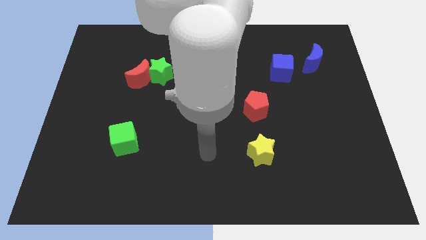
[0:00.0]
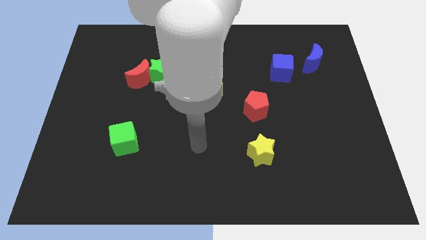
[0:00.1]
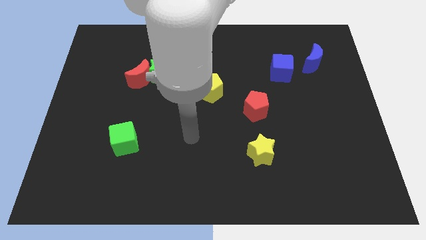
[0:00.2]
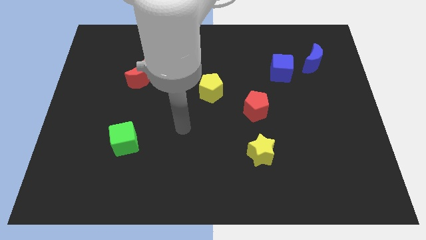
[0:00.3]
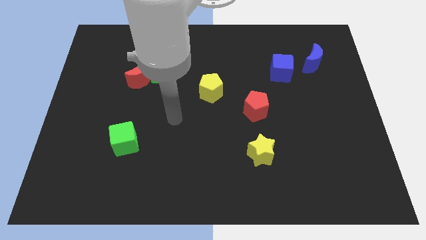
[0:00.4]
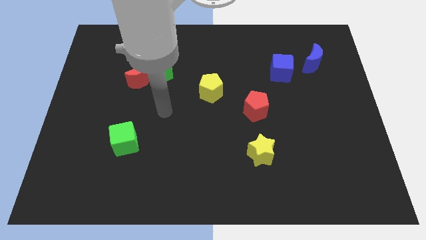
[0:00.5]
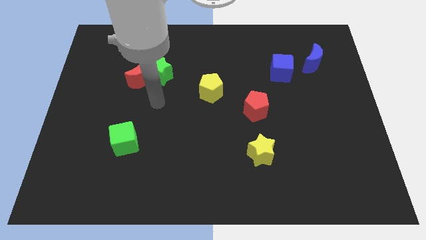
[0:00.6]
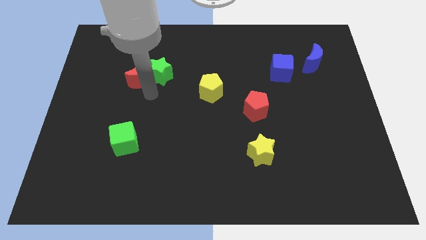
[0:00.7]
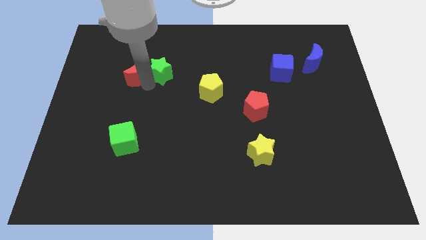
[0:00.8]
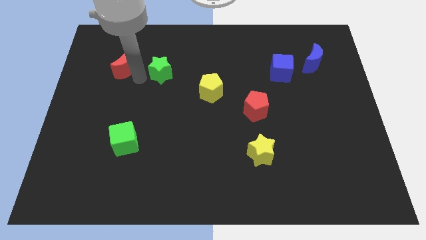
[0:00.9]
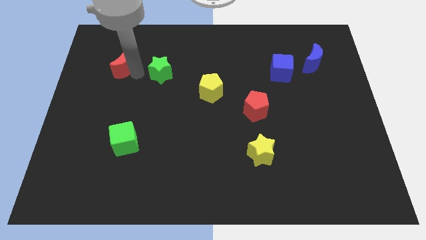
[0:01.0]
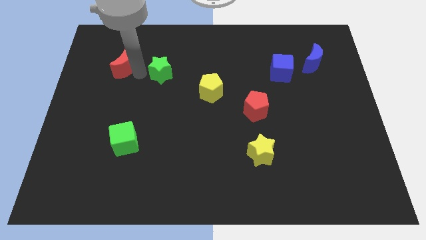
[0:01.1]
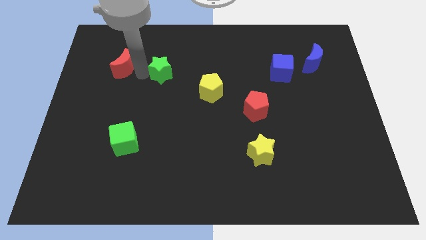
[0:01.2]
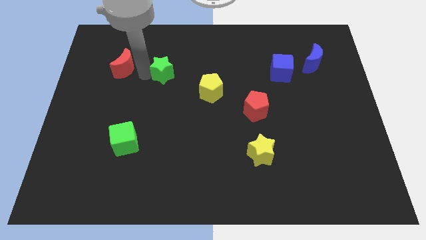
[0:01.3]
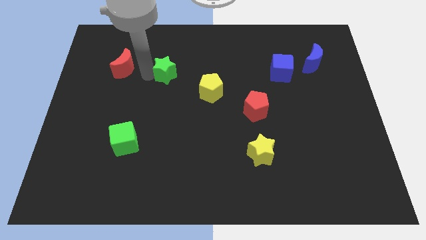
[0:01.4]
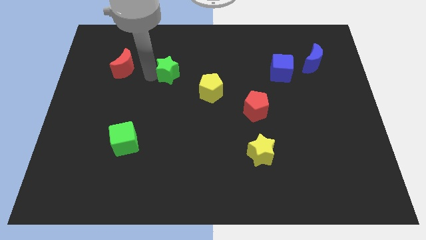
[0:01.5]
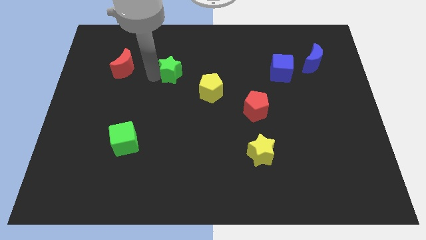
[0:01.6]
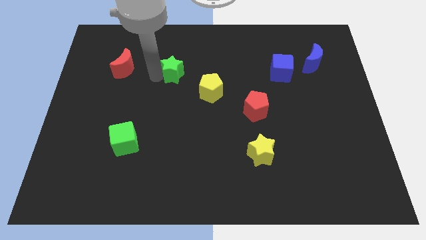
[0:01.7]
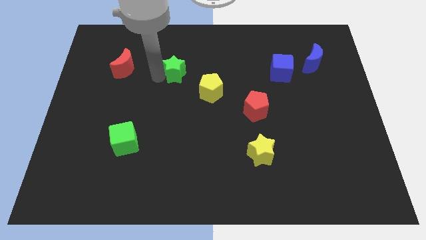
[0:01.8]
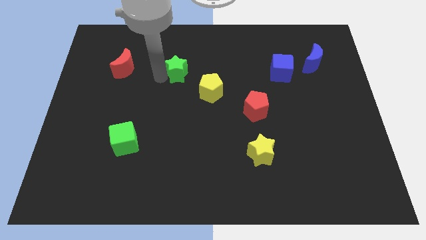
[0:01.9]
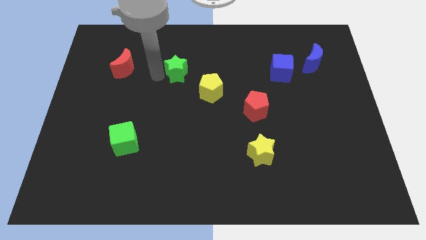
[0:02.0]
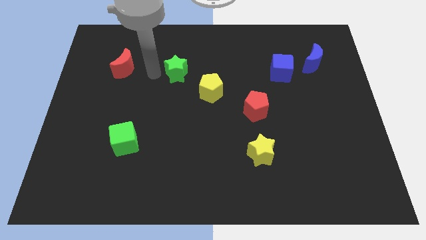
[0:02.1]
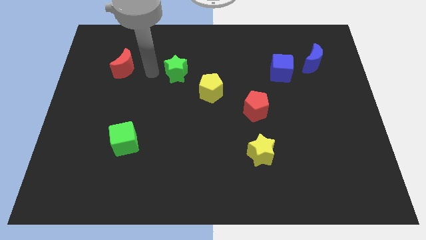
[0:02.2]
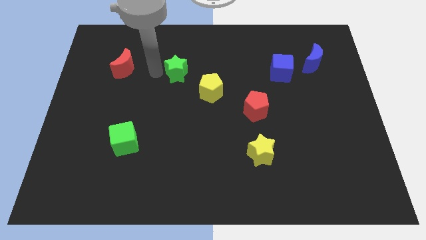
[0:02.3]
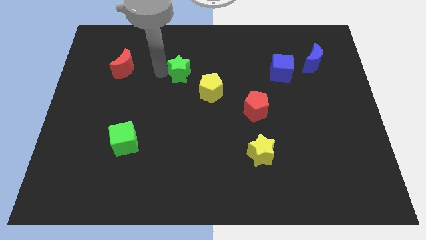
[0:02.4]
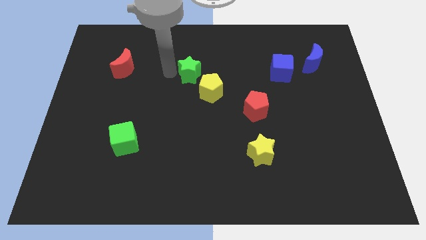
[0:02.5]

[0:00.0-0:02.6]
slightly push the green star right

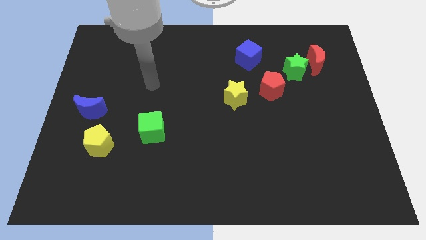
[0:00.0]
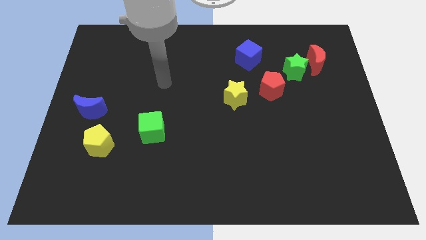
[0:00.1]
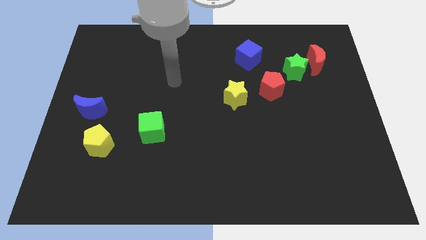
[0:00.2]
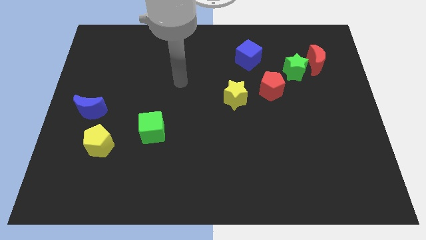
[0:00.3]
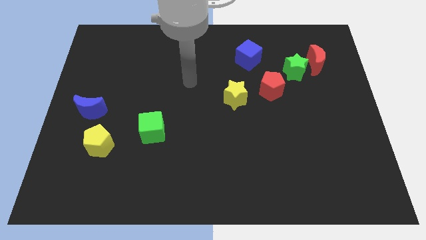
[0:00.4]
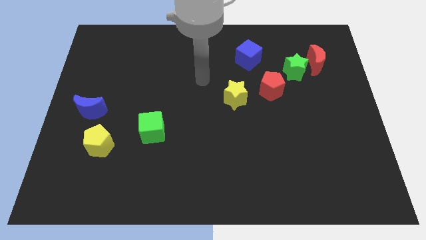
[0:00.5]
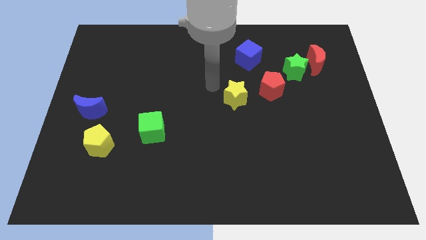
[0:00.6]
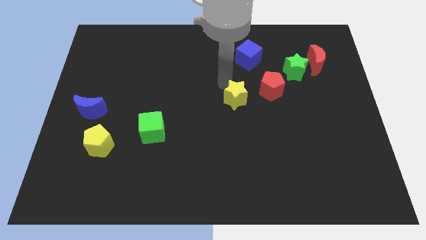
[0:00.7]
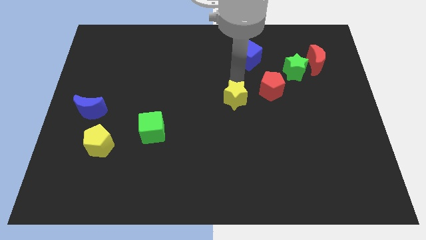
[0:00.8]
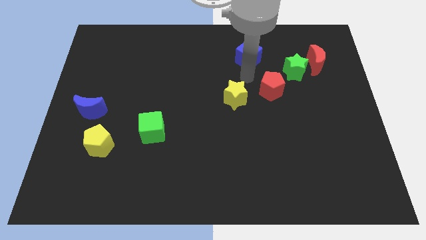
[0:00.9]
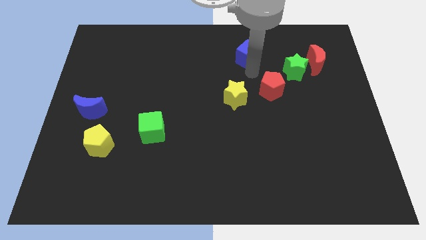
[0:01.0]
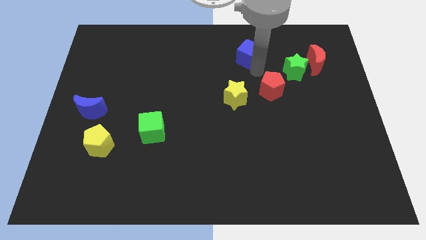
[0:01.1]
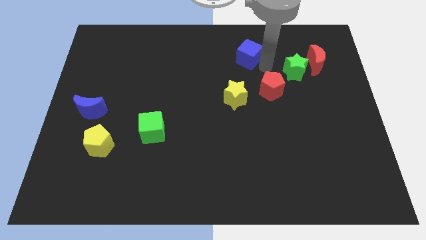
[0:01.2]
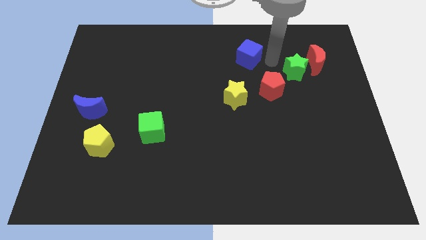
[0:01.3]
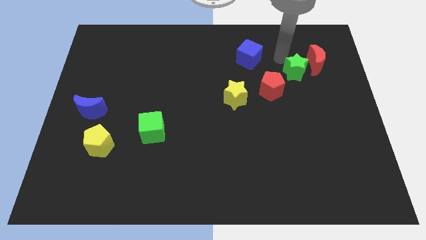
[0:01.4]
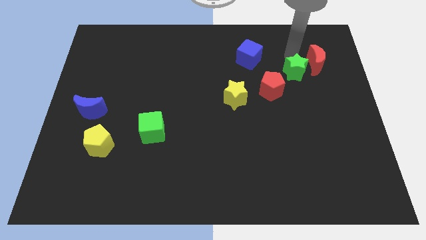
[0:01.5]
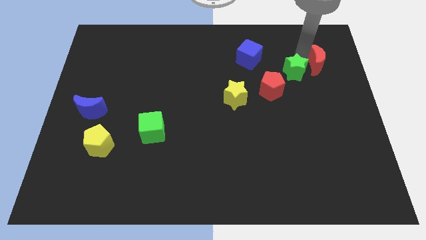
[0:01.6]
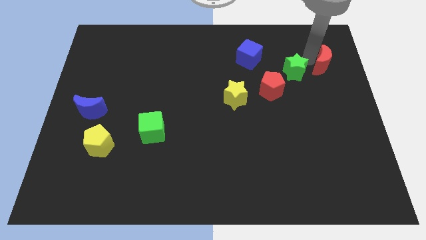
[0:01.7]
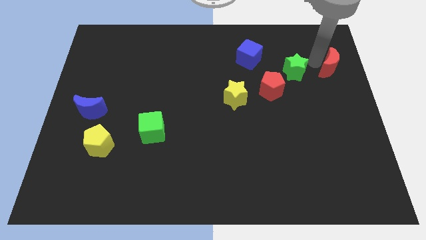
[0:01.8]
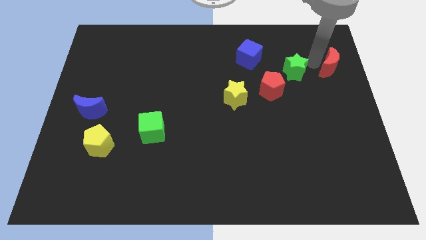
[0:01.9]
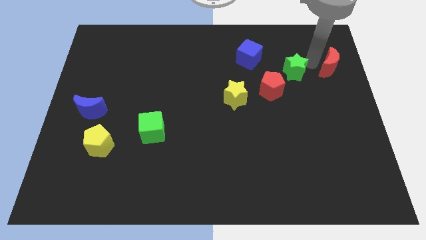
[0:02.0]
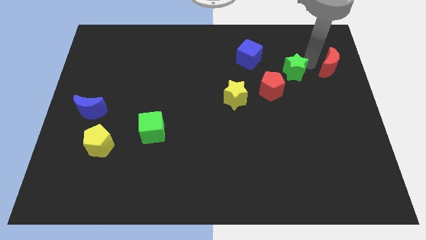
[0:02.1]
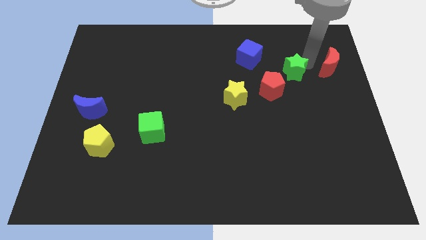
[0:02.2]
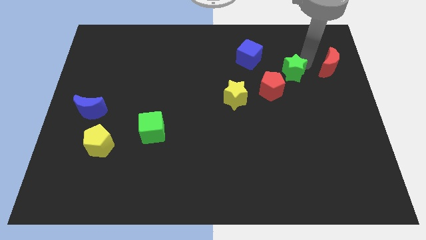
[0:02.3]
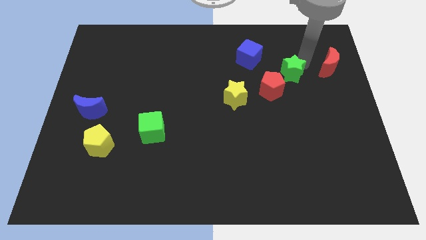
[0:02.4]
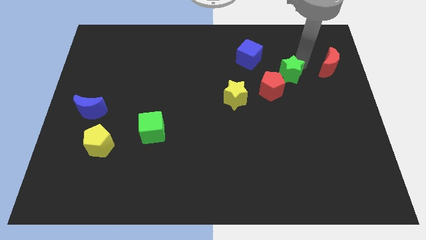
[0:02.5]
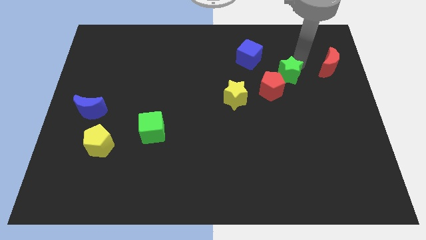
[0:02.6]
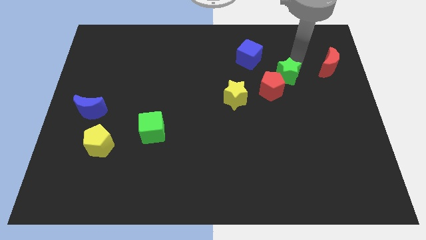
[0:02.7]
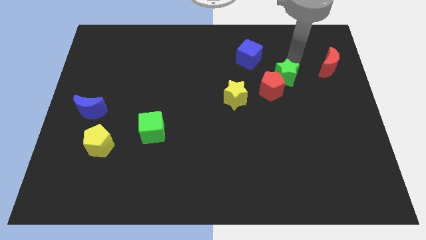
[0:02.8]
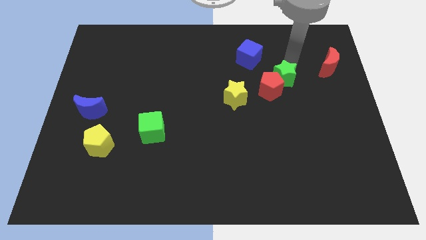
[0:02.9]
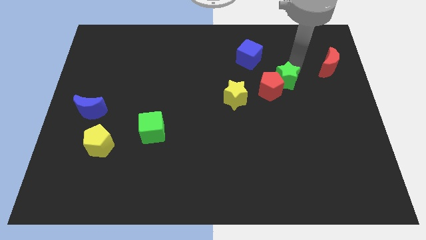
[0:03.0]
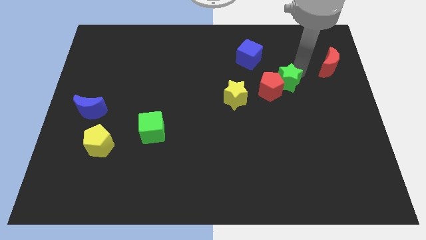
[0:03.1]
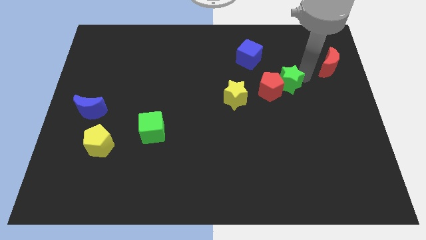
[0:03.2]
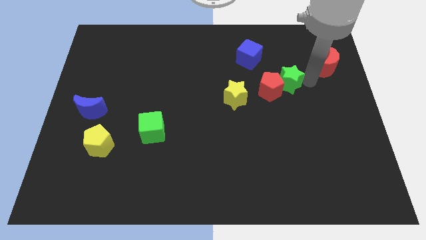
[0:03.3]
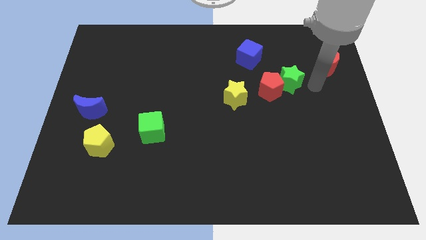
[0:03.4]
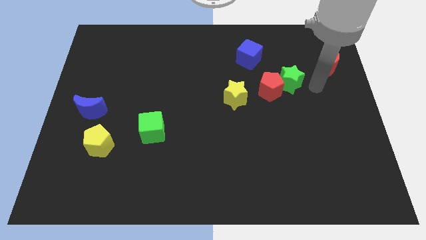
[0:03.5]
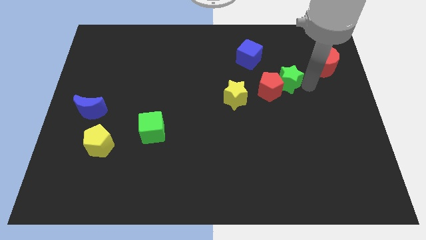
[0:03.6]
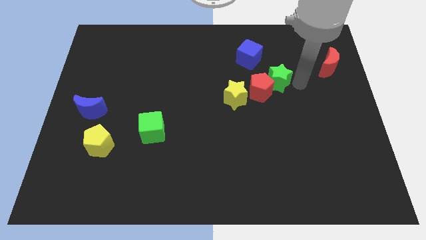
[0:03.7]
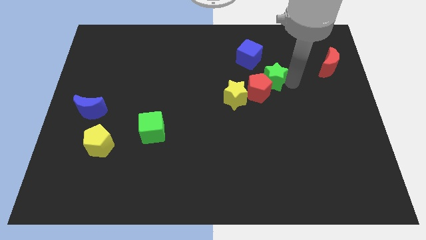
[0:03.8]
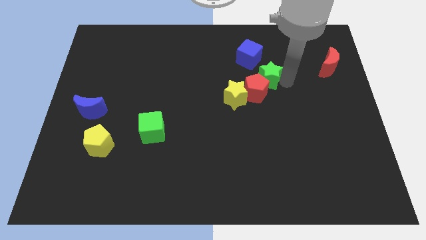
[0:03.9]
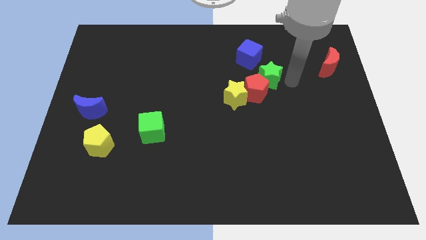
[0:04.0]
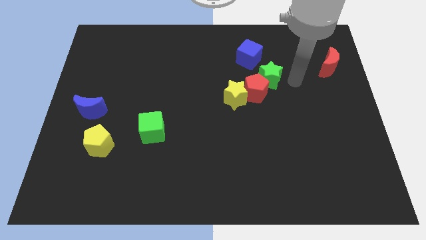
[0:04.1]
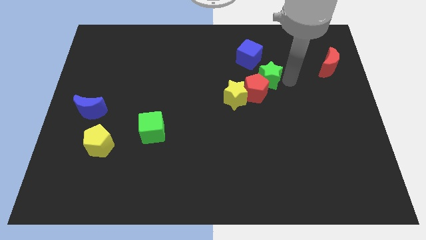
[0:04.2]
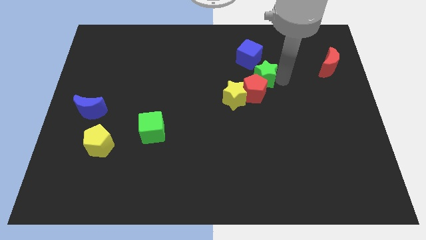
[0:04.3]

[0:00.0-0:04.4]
slightly move the green star left

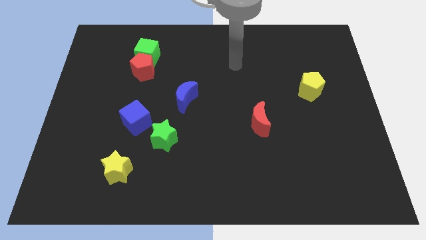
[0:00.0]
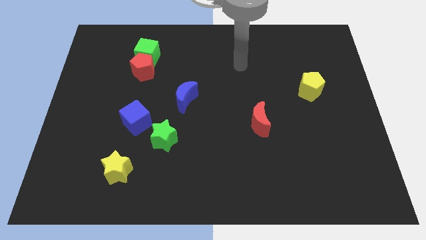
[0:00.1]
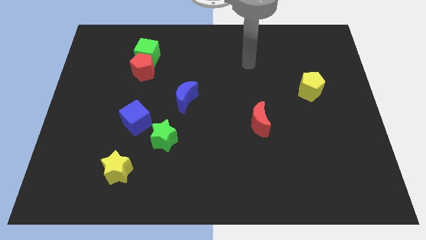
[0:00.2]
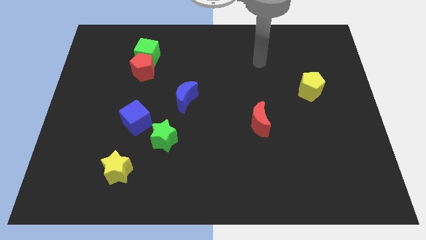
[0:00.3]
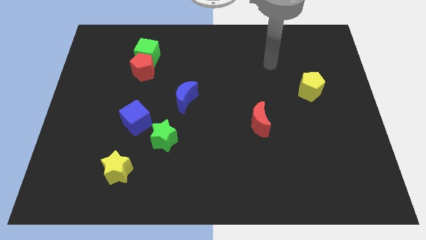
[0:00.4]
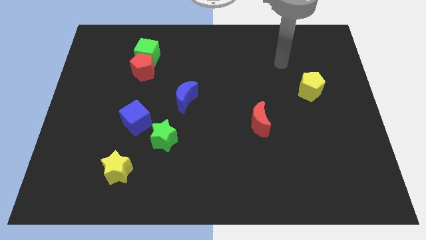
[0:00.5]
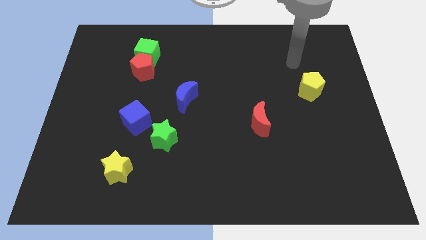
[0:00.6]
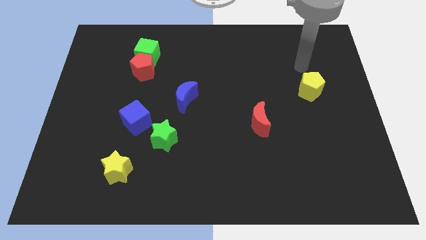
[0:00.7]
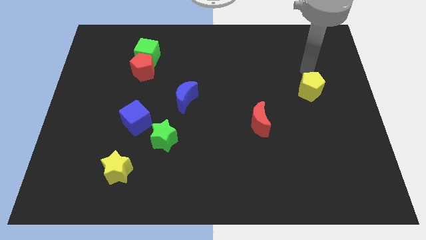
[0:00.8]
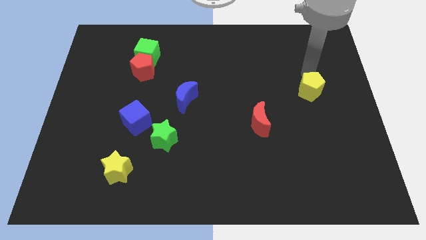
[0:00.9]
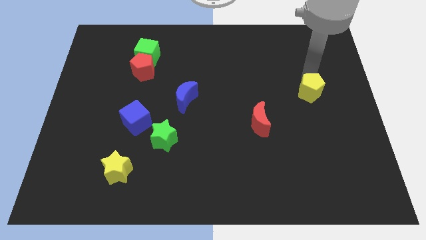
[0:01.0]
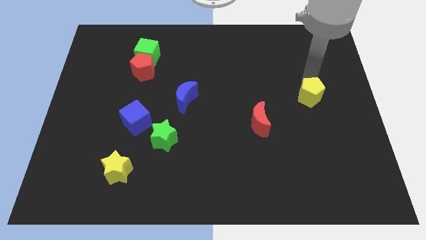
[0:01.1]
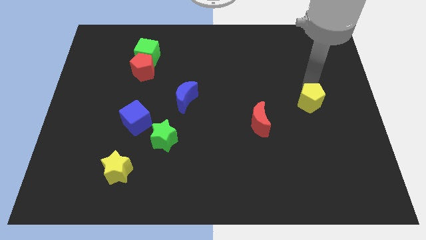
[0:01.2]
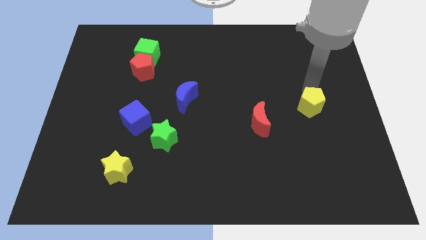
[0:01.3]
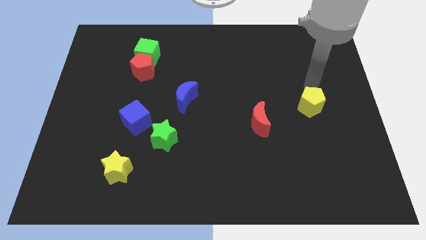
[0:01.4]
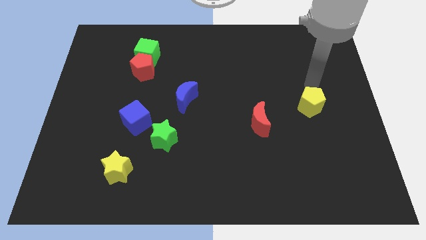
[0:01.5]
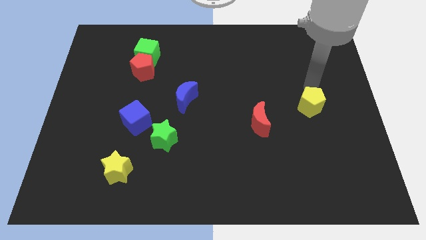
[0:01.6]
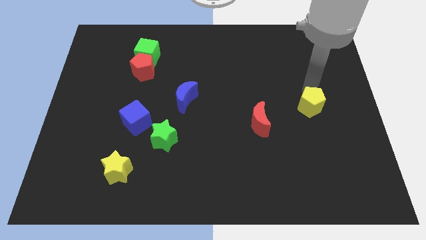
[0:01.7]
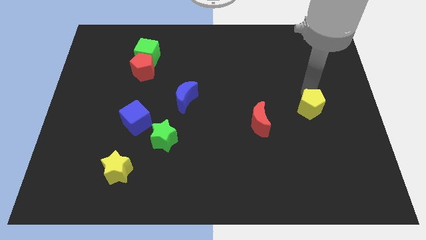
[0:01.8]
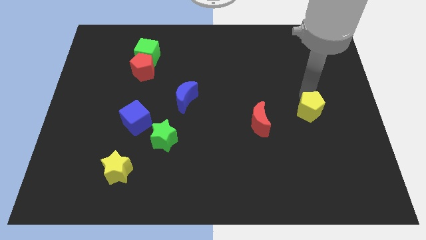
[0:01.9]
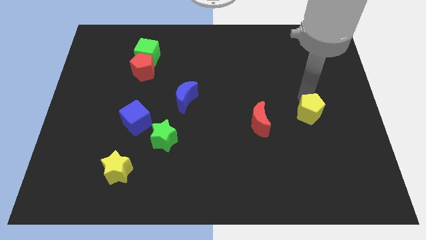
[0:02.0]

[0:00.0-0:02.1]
move the yellow pentagon a little bit downwards
